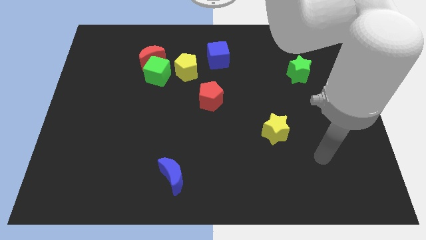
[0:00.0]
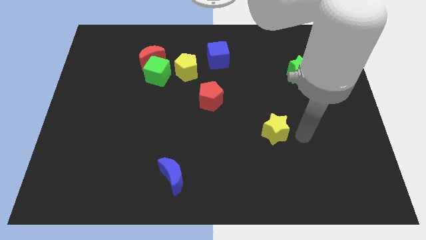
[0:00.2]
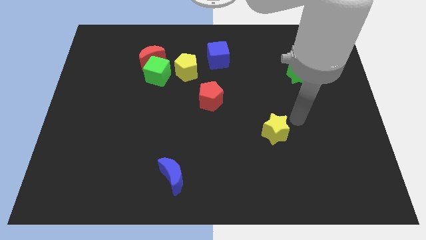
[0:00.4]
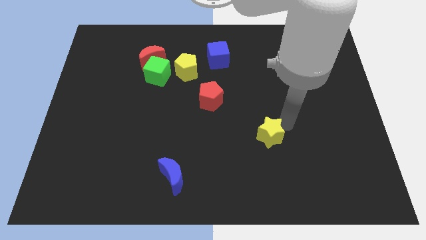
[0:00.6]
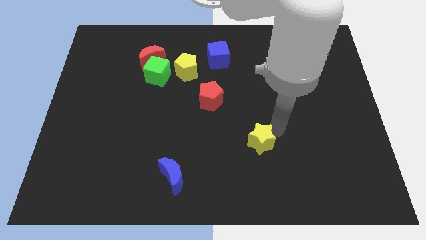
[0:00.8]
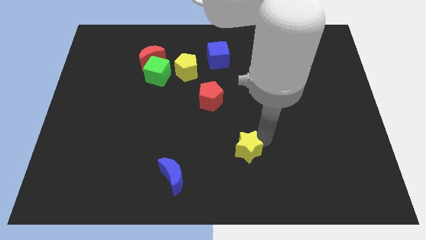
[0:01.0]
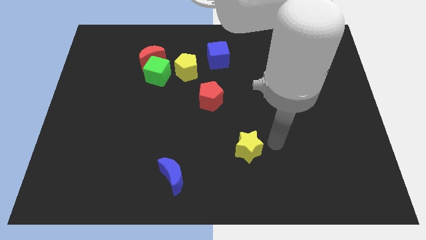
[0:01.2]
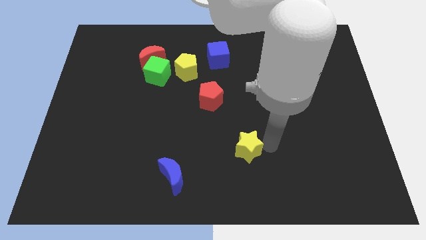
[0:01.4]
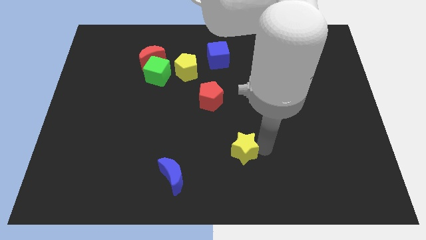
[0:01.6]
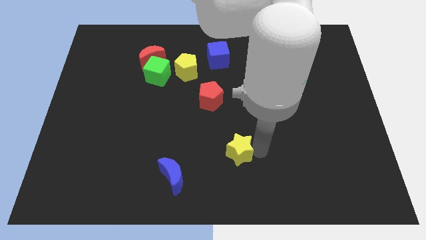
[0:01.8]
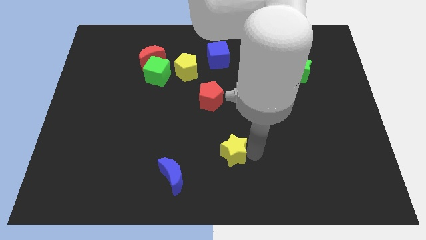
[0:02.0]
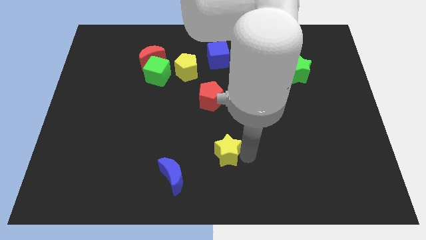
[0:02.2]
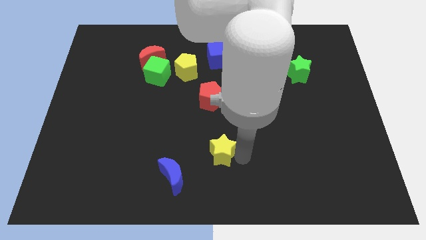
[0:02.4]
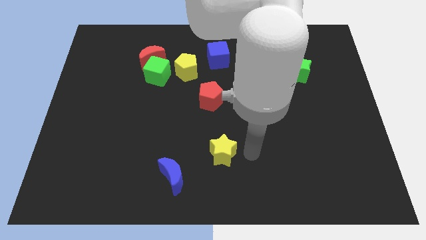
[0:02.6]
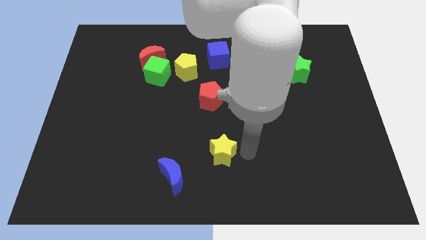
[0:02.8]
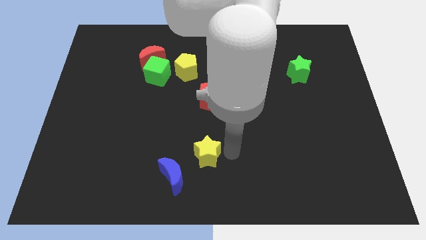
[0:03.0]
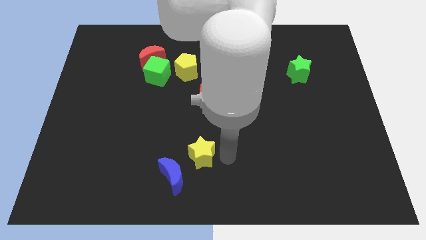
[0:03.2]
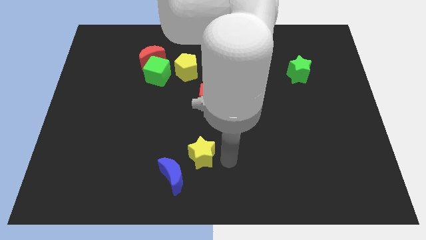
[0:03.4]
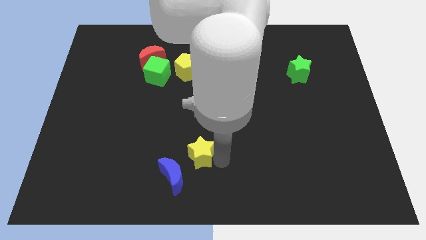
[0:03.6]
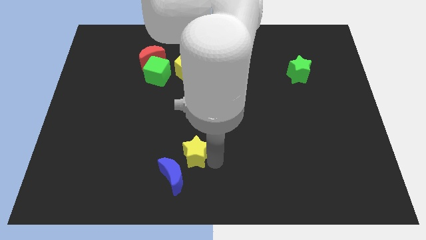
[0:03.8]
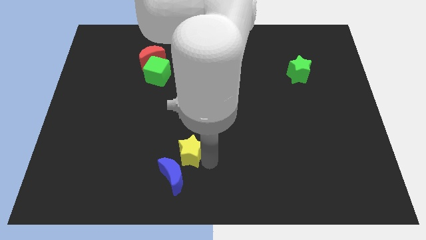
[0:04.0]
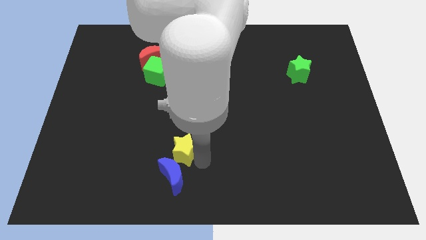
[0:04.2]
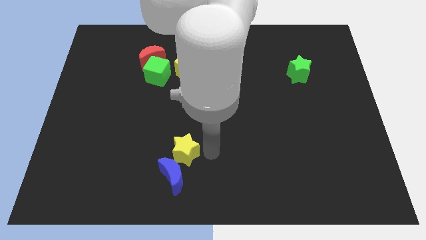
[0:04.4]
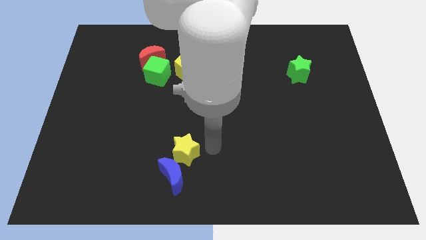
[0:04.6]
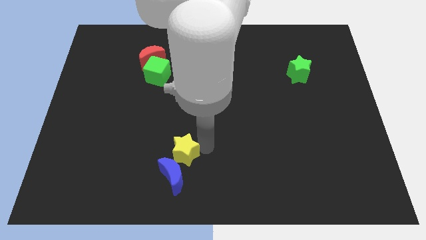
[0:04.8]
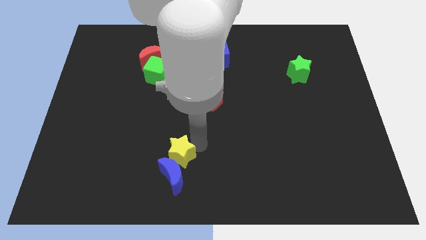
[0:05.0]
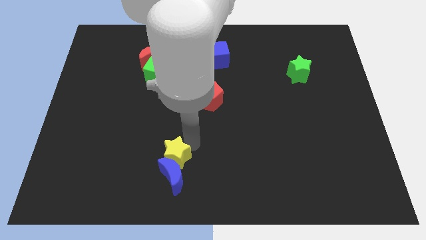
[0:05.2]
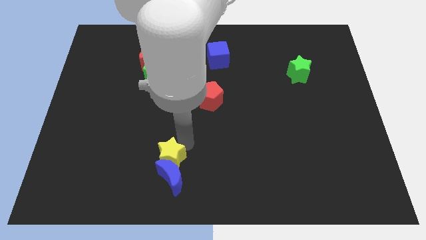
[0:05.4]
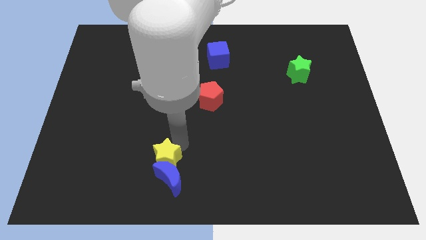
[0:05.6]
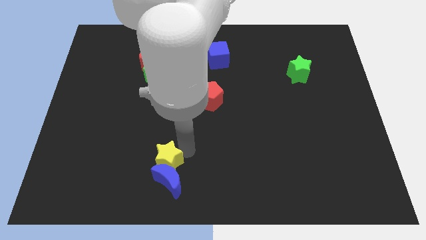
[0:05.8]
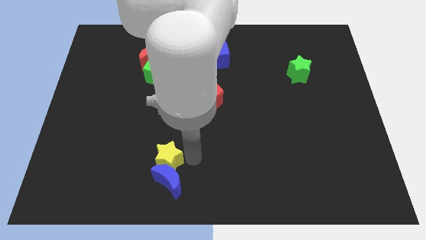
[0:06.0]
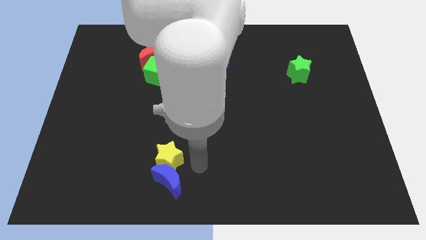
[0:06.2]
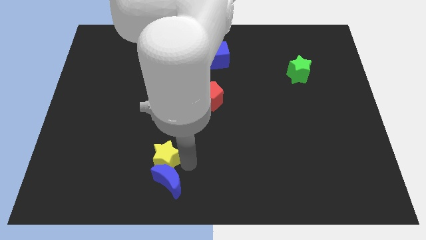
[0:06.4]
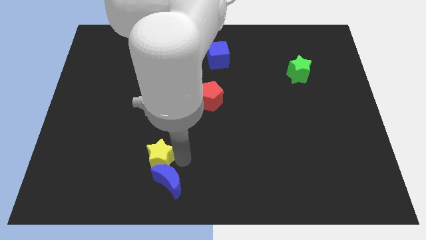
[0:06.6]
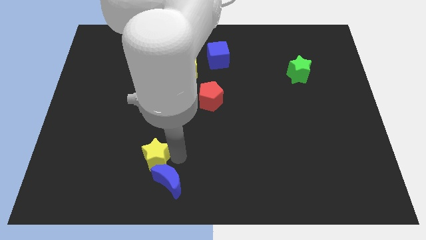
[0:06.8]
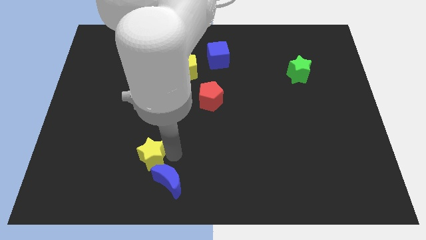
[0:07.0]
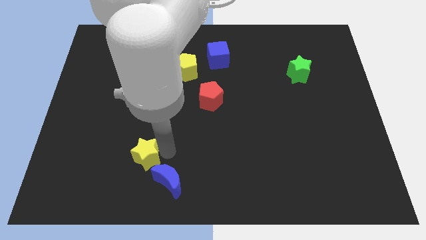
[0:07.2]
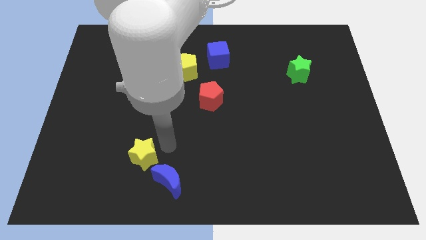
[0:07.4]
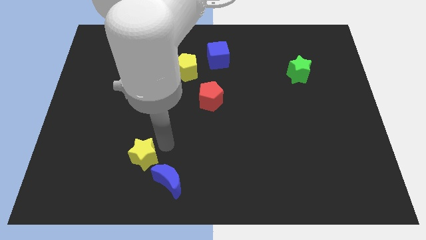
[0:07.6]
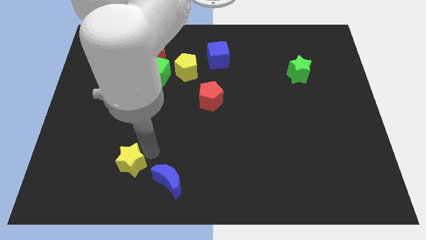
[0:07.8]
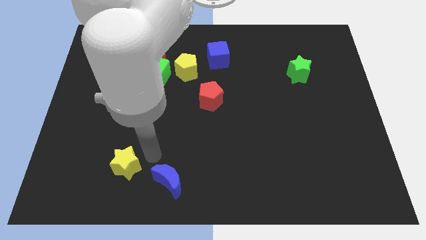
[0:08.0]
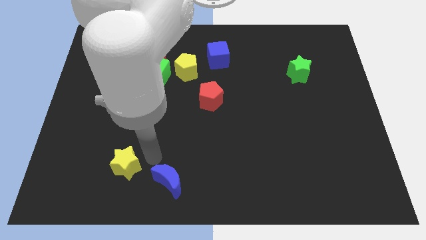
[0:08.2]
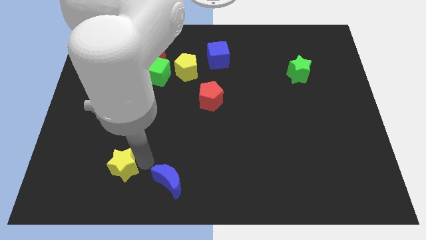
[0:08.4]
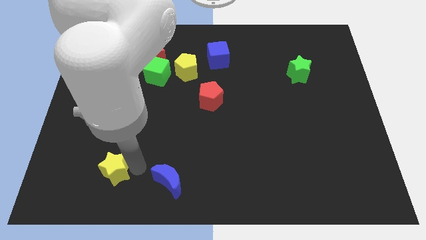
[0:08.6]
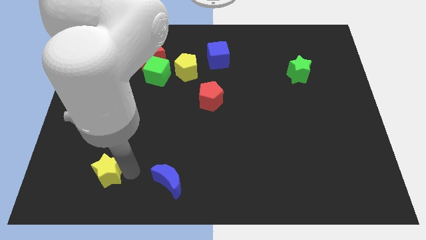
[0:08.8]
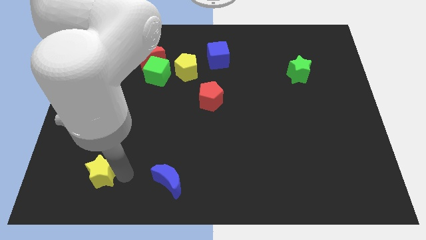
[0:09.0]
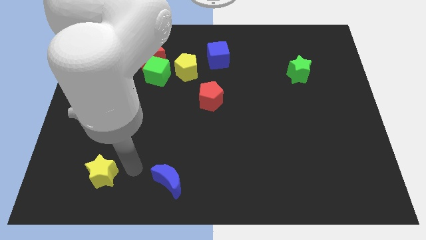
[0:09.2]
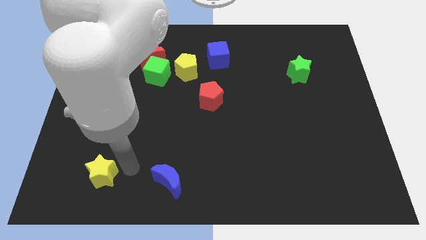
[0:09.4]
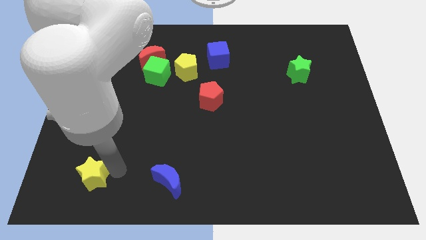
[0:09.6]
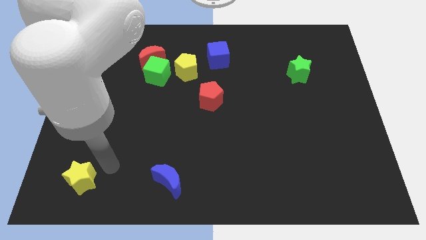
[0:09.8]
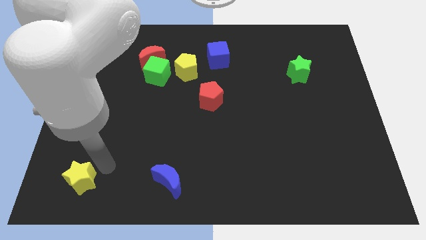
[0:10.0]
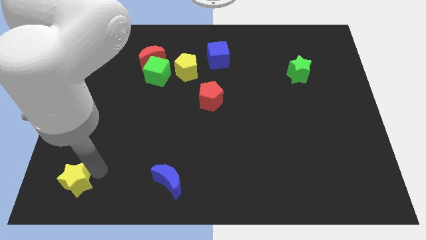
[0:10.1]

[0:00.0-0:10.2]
put the yellow star to the bottom left

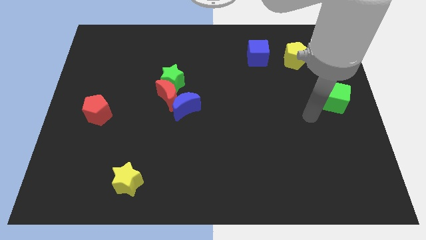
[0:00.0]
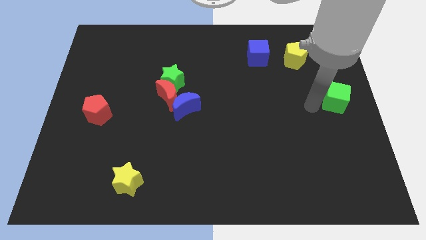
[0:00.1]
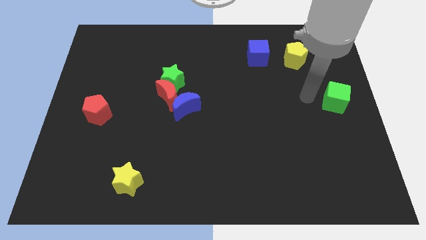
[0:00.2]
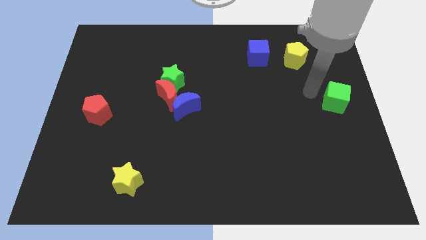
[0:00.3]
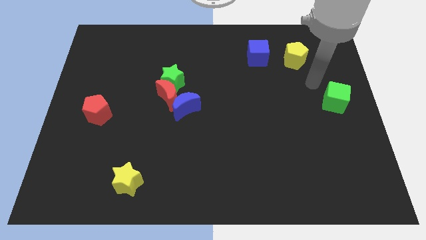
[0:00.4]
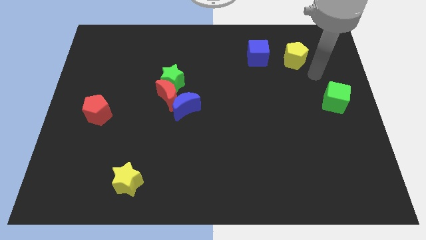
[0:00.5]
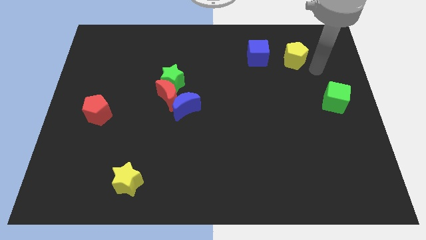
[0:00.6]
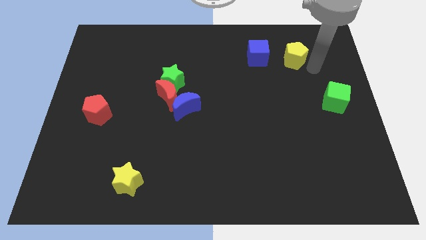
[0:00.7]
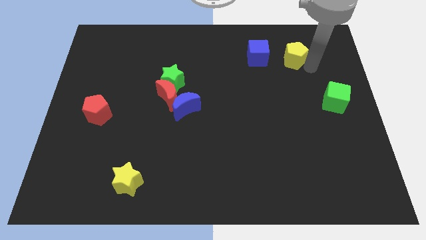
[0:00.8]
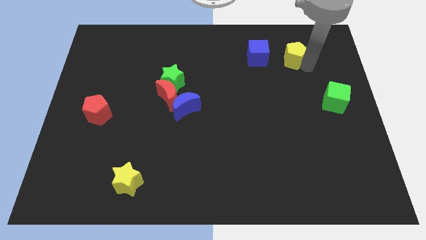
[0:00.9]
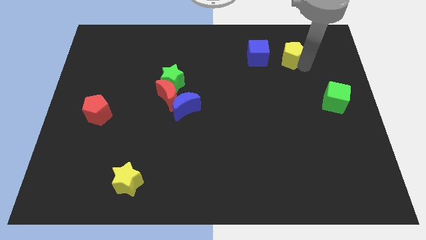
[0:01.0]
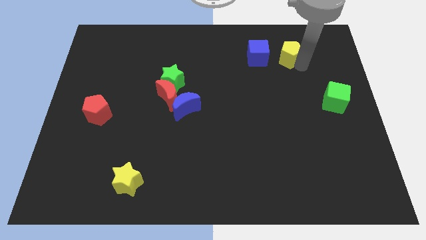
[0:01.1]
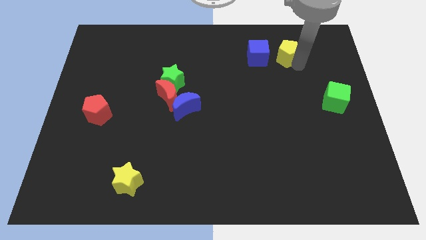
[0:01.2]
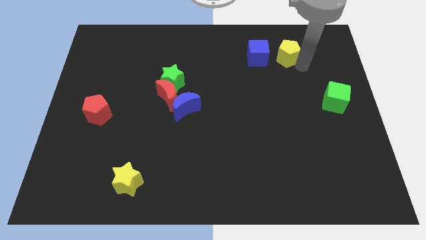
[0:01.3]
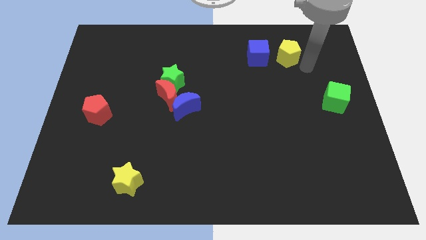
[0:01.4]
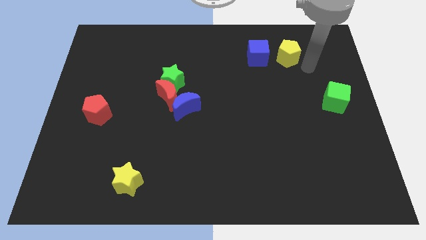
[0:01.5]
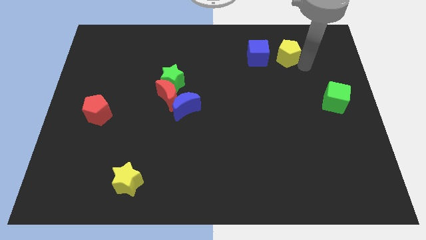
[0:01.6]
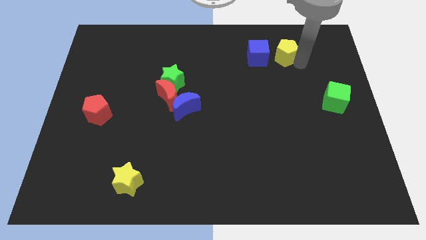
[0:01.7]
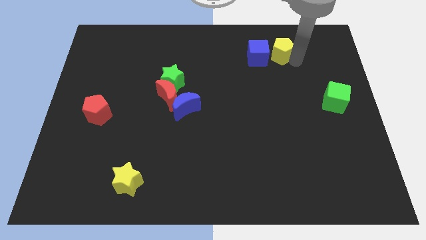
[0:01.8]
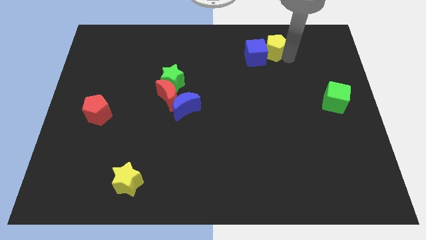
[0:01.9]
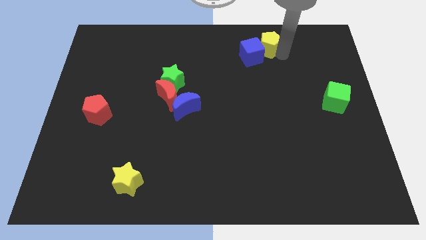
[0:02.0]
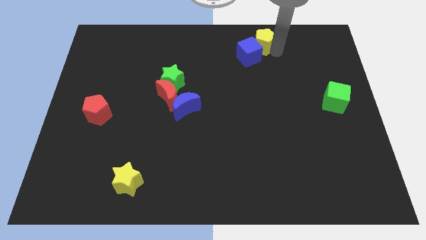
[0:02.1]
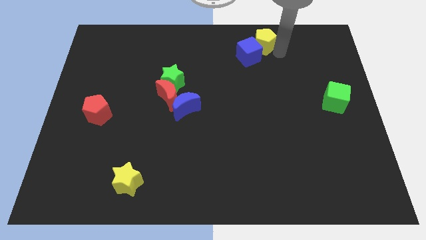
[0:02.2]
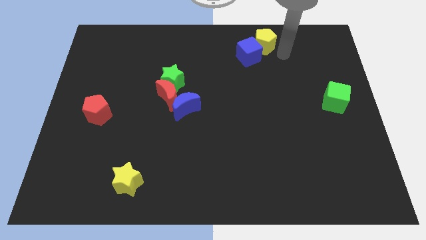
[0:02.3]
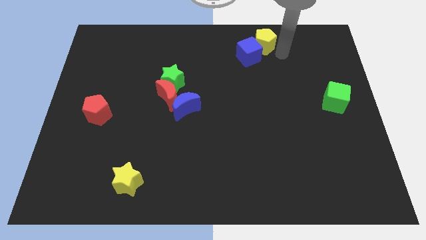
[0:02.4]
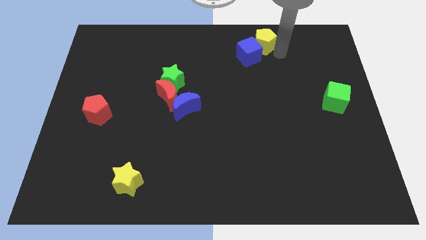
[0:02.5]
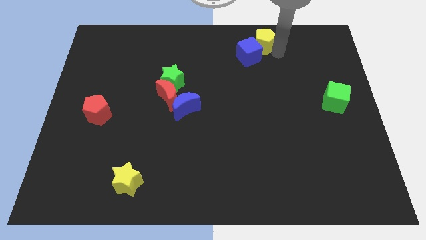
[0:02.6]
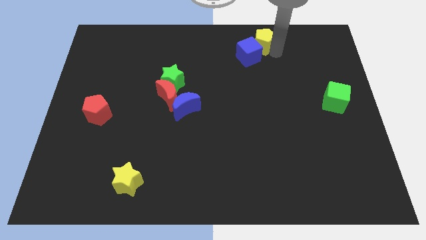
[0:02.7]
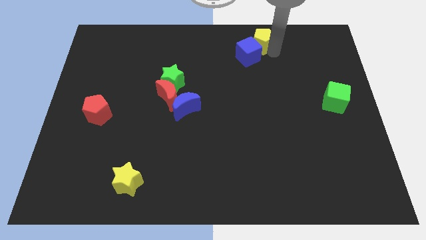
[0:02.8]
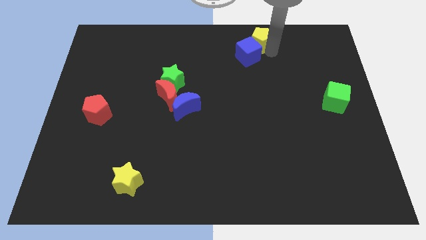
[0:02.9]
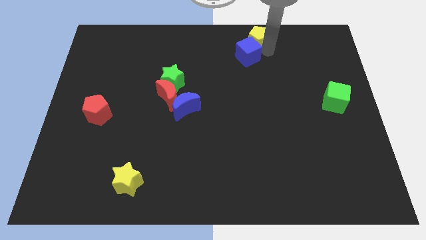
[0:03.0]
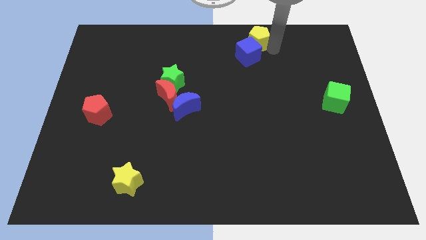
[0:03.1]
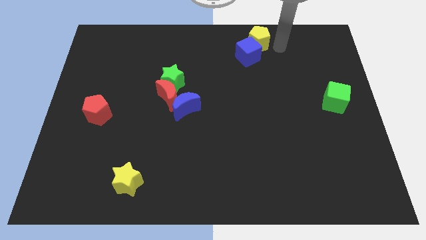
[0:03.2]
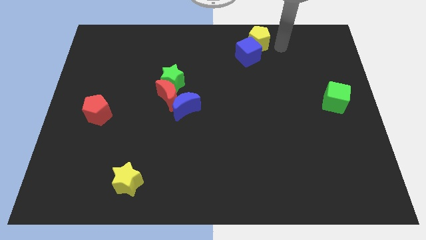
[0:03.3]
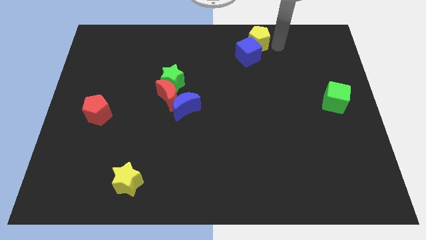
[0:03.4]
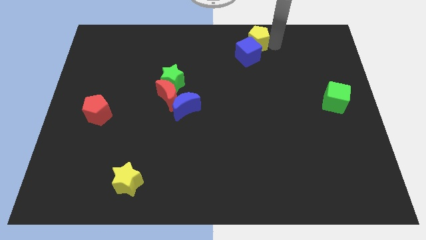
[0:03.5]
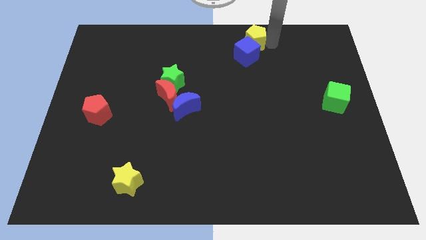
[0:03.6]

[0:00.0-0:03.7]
push the yellow pentagon to the top side
